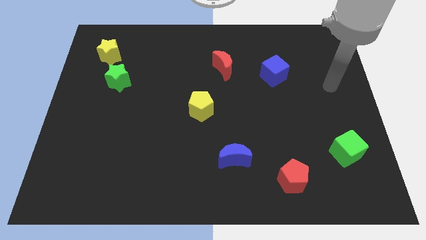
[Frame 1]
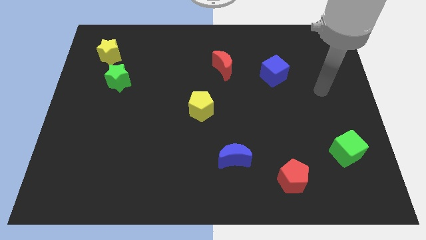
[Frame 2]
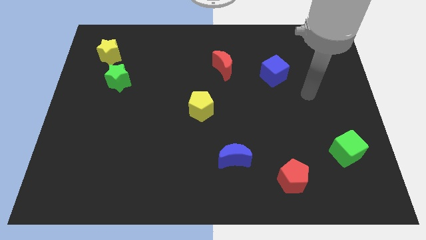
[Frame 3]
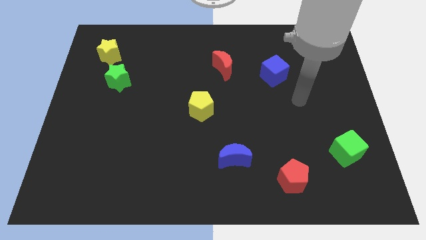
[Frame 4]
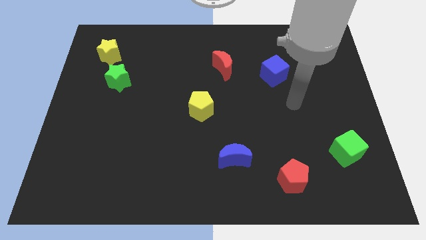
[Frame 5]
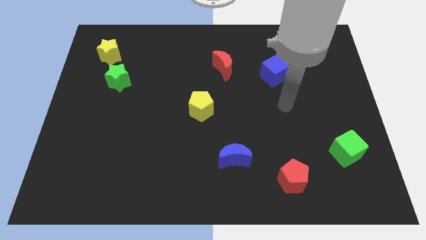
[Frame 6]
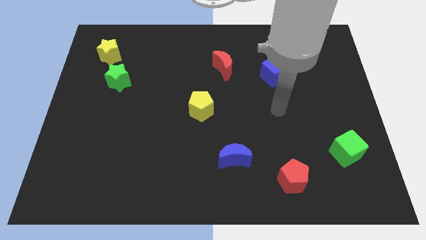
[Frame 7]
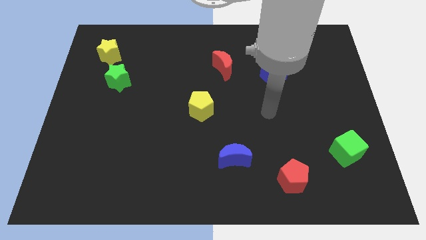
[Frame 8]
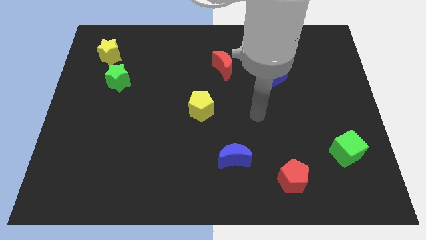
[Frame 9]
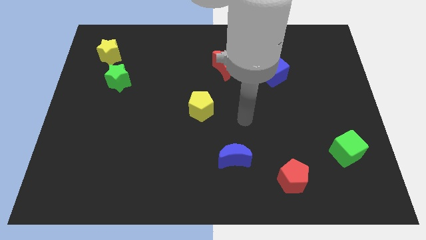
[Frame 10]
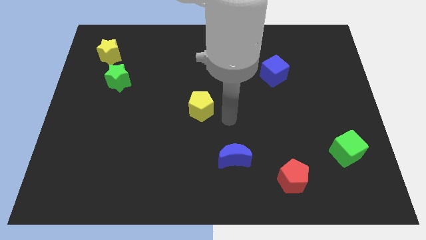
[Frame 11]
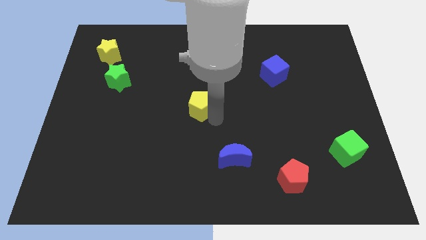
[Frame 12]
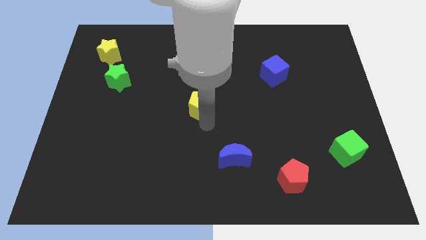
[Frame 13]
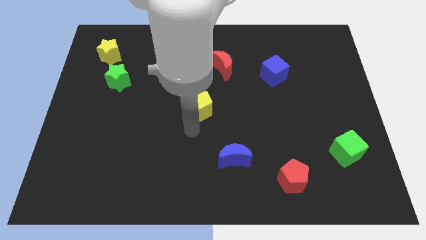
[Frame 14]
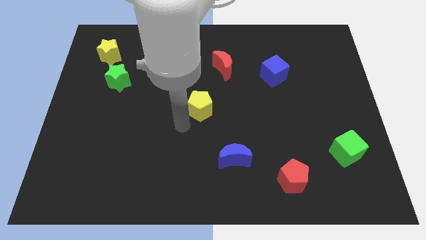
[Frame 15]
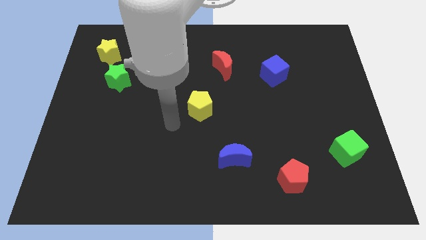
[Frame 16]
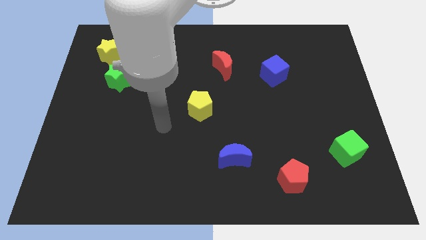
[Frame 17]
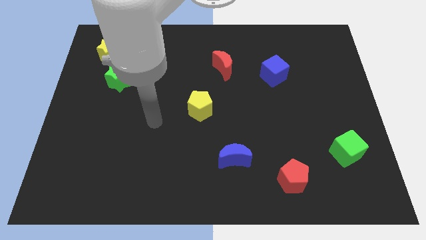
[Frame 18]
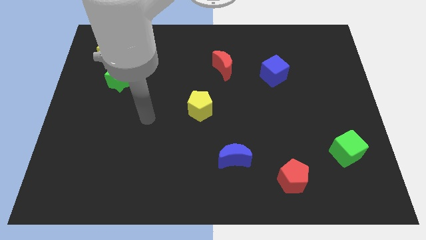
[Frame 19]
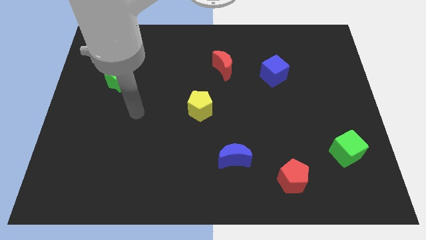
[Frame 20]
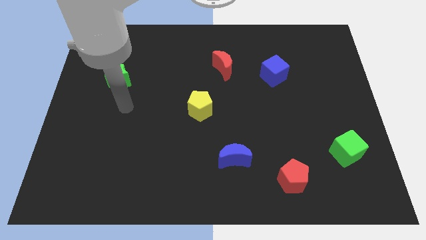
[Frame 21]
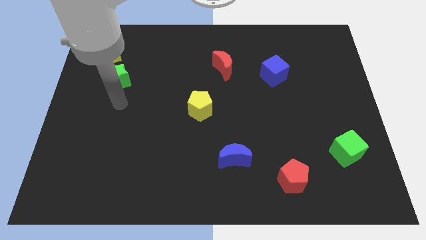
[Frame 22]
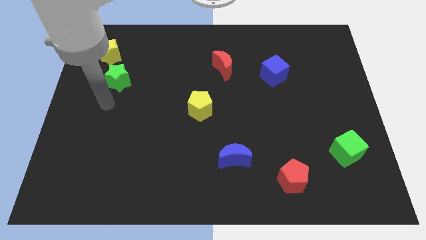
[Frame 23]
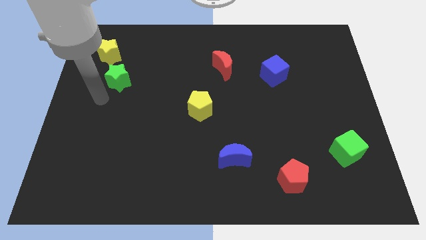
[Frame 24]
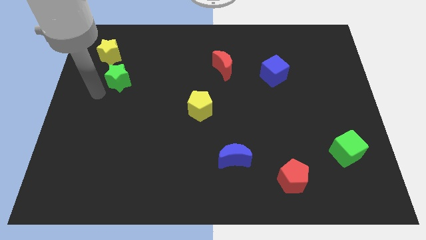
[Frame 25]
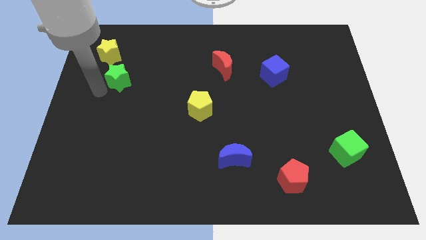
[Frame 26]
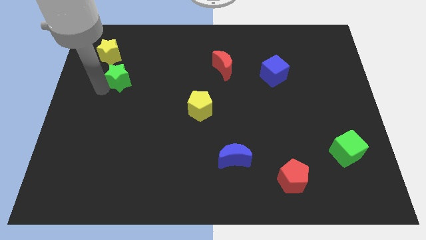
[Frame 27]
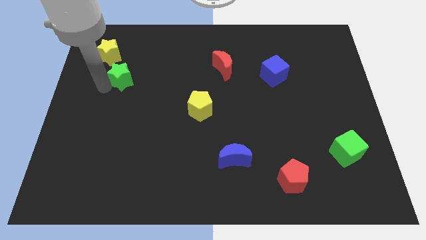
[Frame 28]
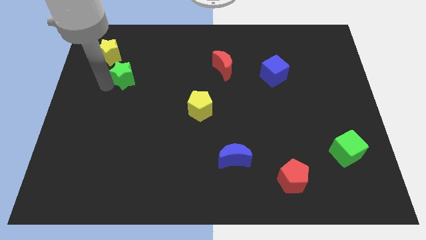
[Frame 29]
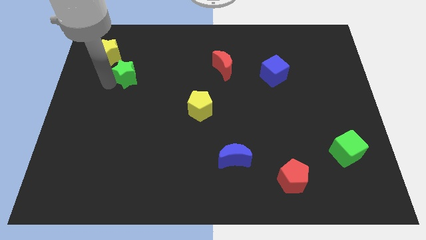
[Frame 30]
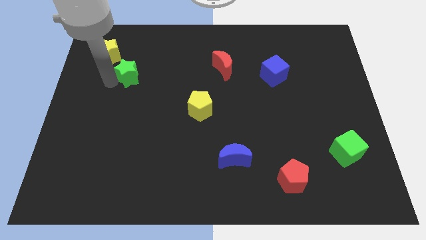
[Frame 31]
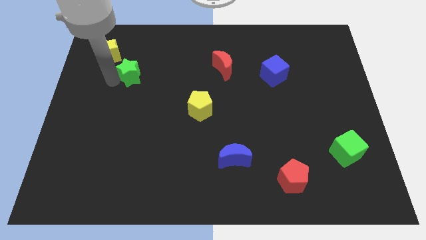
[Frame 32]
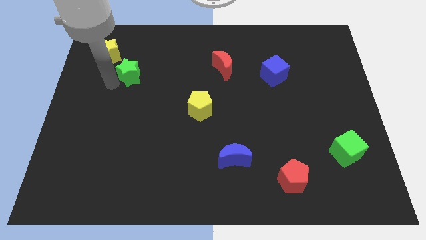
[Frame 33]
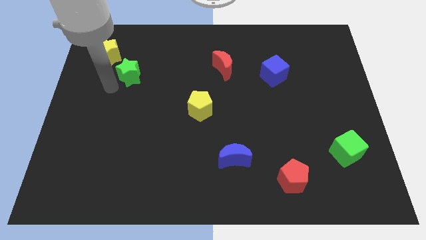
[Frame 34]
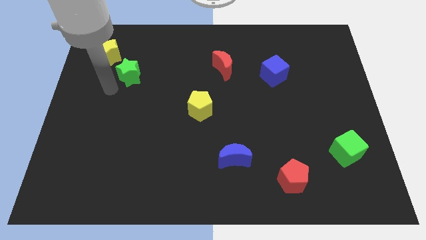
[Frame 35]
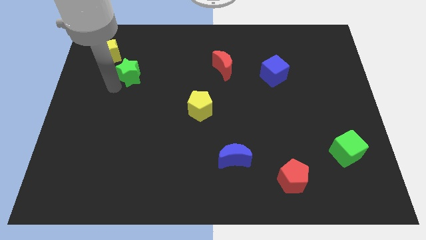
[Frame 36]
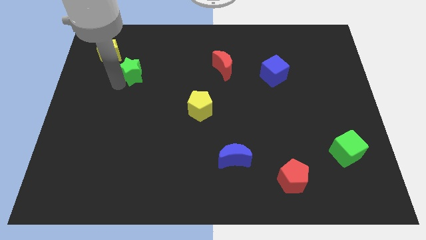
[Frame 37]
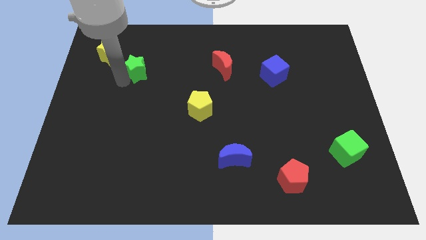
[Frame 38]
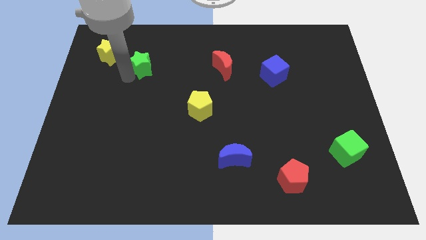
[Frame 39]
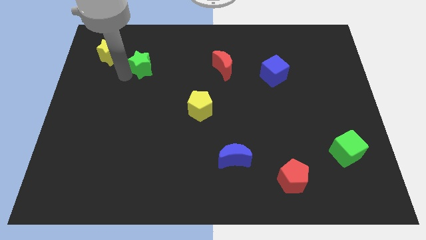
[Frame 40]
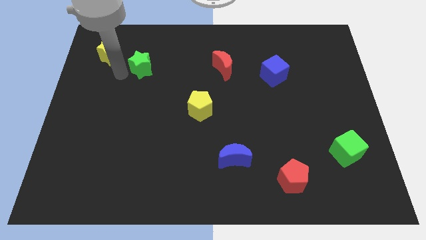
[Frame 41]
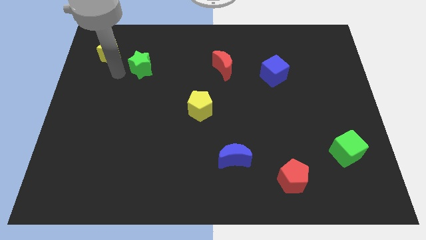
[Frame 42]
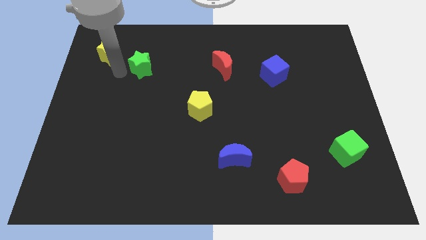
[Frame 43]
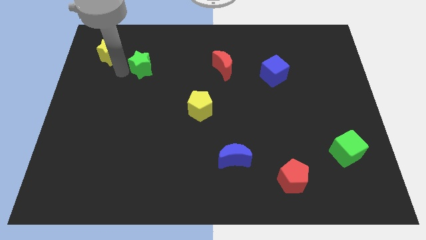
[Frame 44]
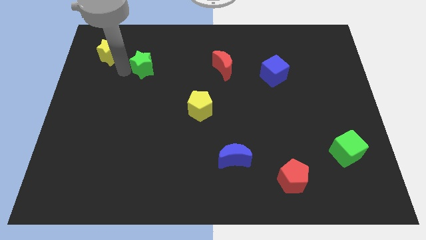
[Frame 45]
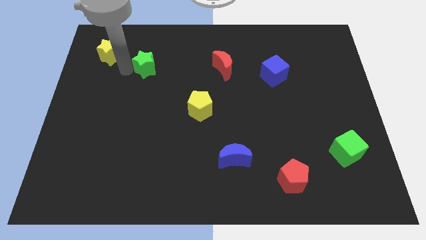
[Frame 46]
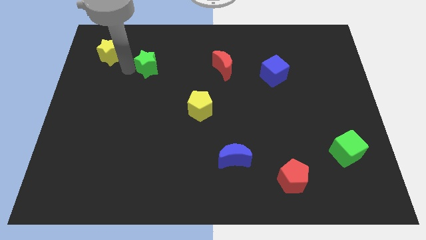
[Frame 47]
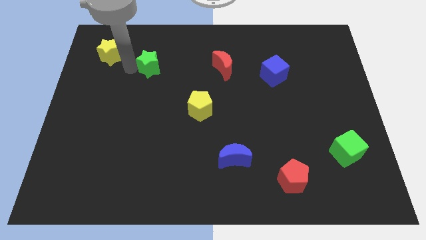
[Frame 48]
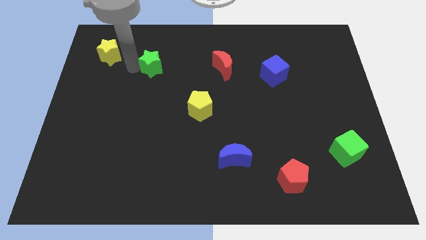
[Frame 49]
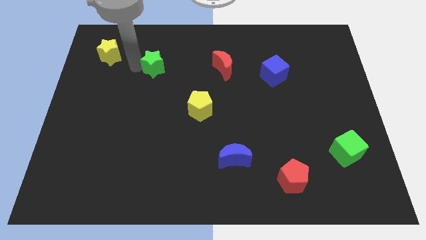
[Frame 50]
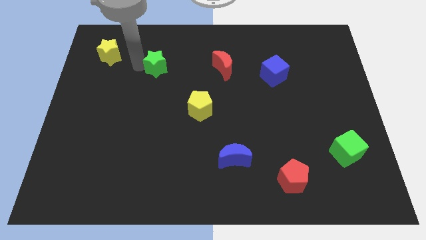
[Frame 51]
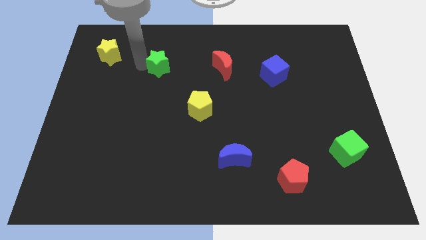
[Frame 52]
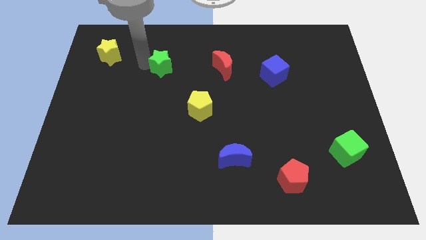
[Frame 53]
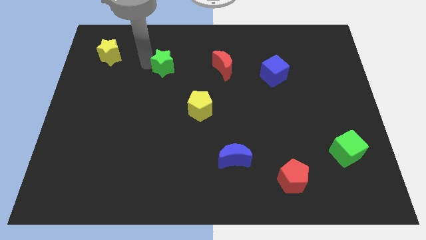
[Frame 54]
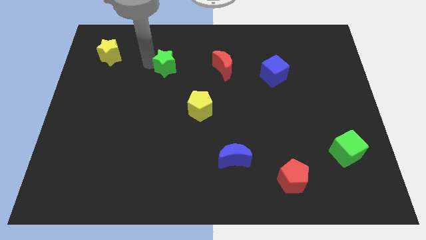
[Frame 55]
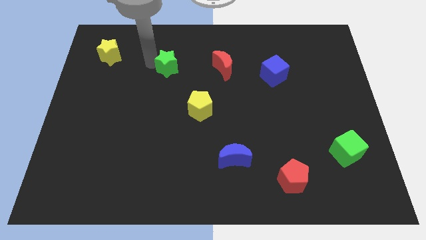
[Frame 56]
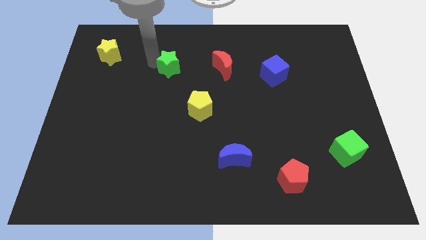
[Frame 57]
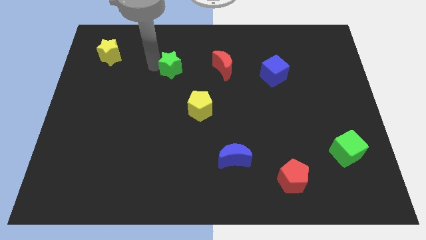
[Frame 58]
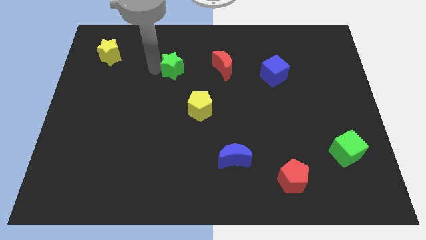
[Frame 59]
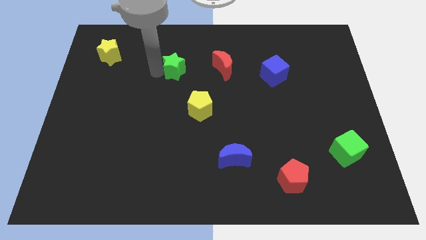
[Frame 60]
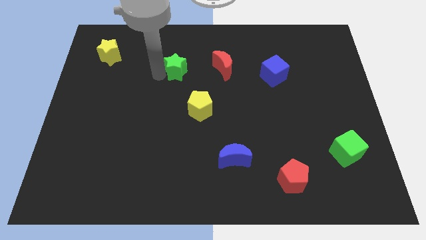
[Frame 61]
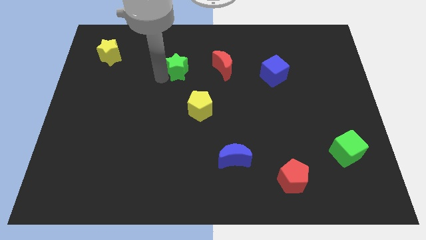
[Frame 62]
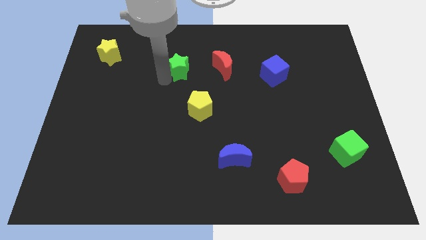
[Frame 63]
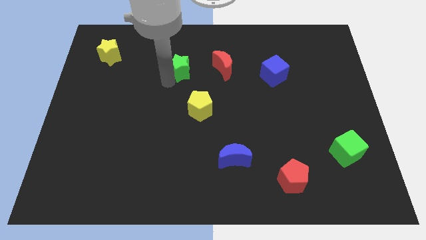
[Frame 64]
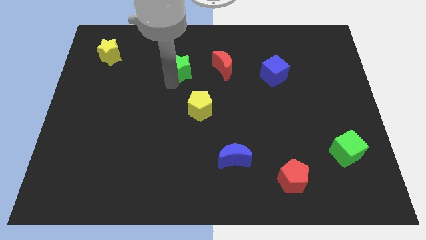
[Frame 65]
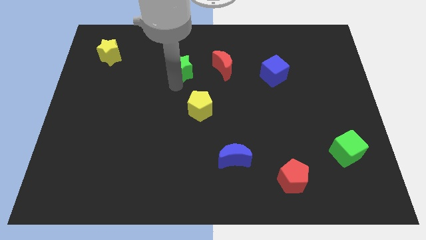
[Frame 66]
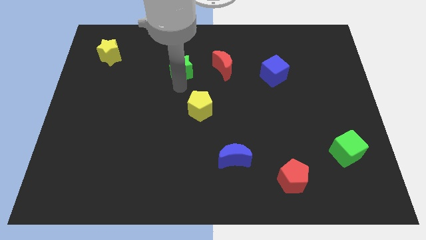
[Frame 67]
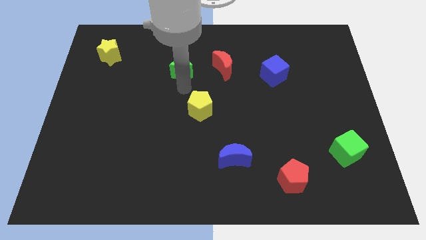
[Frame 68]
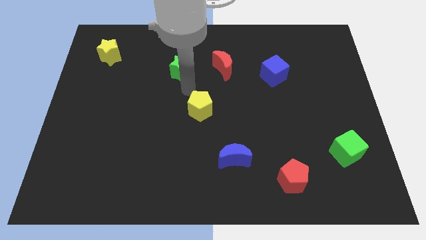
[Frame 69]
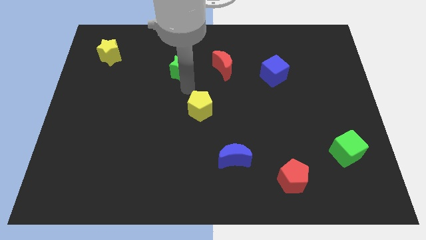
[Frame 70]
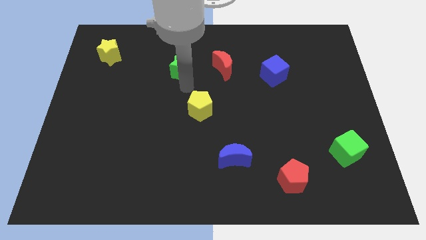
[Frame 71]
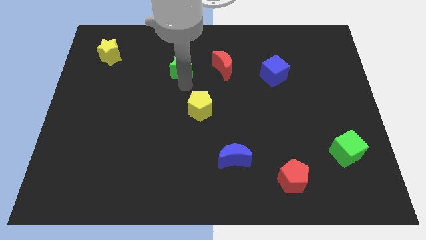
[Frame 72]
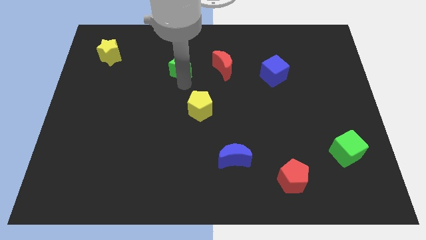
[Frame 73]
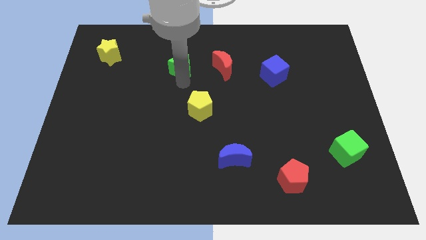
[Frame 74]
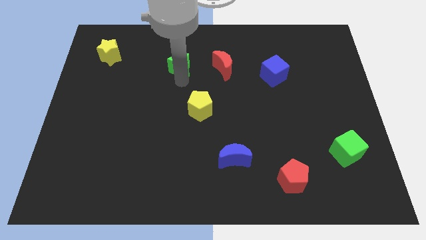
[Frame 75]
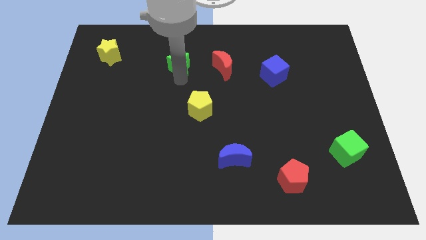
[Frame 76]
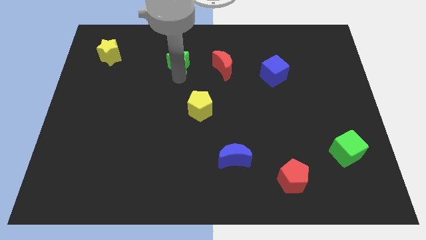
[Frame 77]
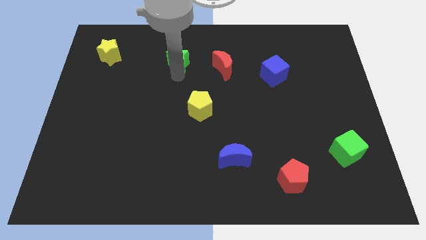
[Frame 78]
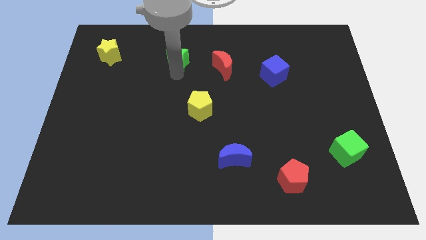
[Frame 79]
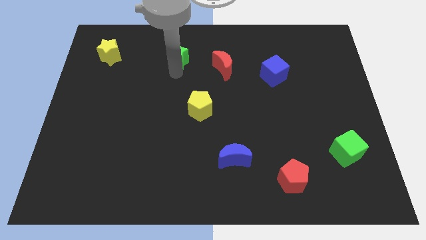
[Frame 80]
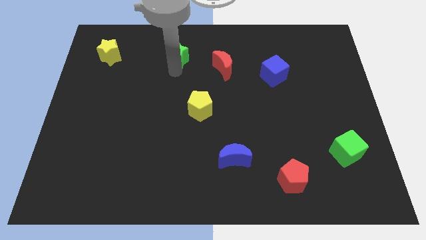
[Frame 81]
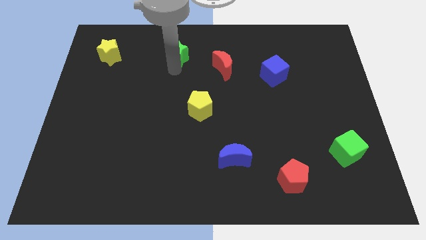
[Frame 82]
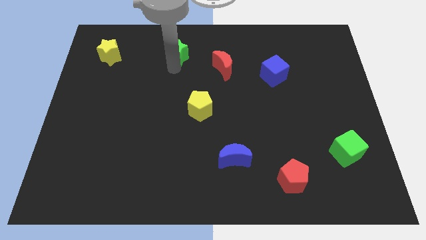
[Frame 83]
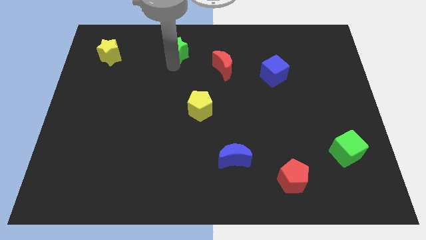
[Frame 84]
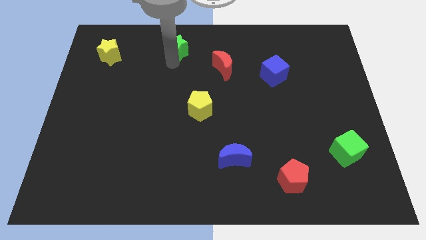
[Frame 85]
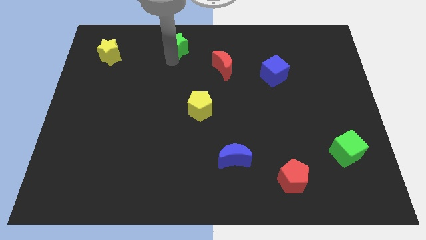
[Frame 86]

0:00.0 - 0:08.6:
slide the green star to the top side
